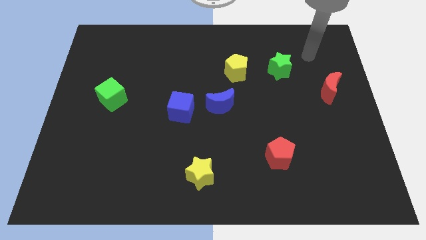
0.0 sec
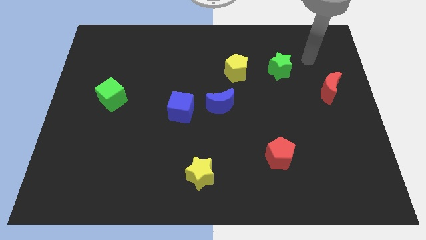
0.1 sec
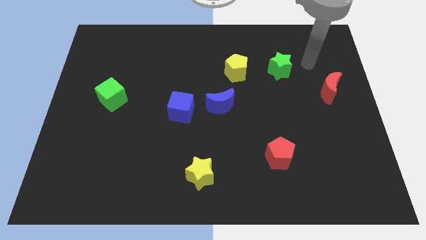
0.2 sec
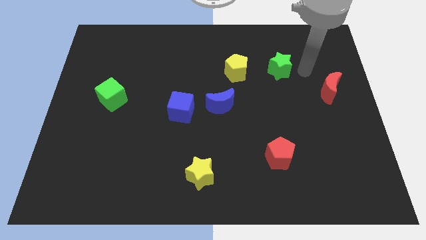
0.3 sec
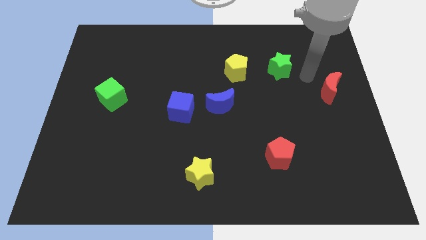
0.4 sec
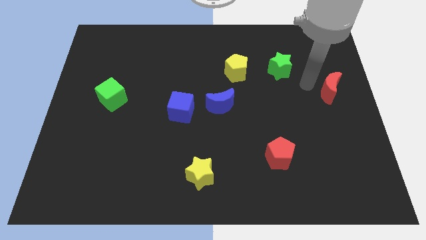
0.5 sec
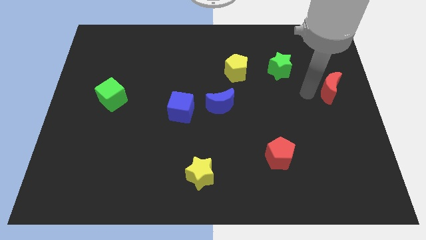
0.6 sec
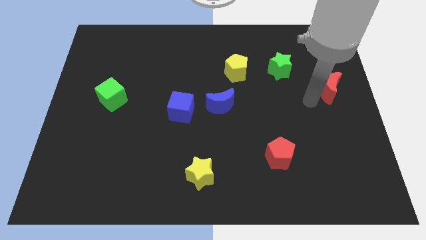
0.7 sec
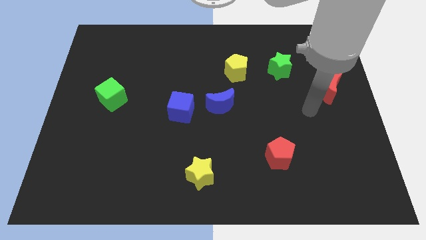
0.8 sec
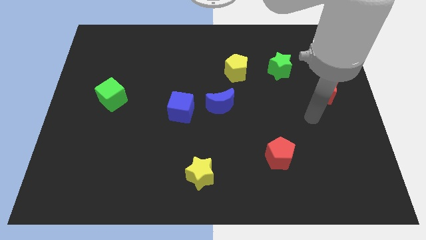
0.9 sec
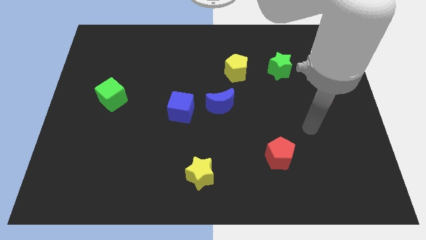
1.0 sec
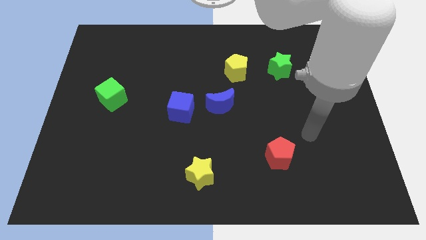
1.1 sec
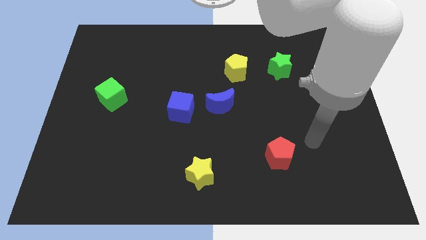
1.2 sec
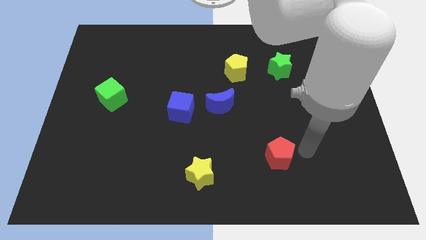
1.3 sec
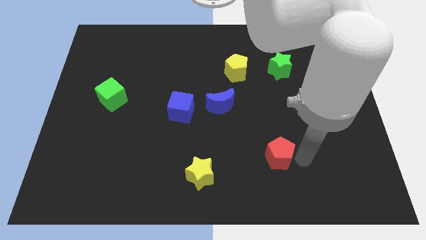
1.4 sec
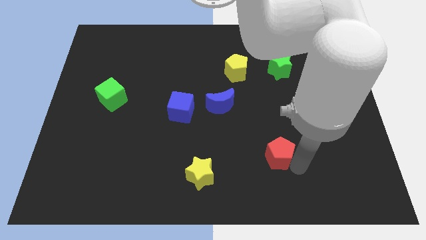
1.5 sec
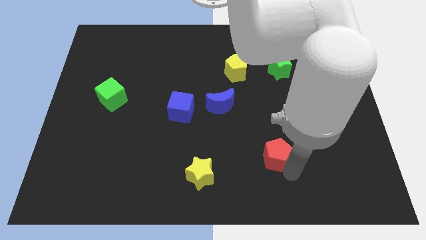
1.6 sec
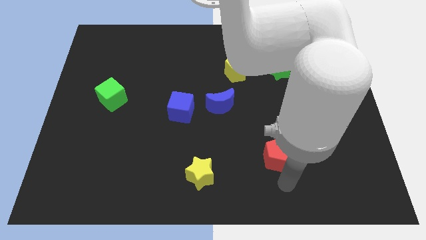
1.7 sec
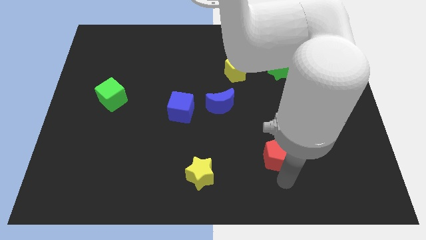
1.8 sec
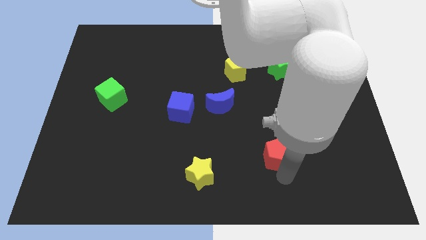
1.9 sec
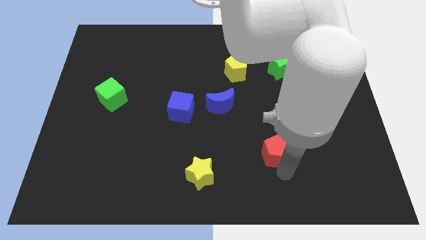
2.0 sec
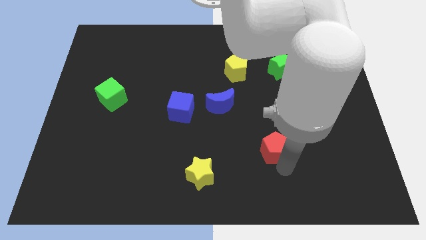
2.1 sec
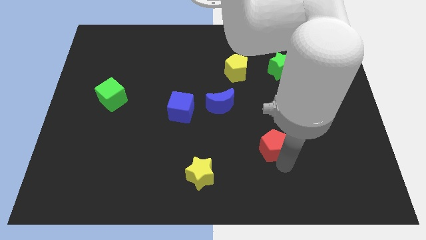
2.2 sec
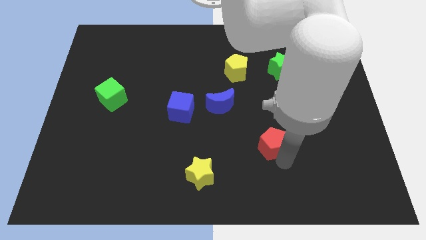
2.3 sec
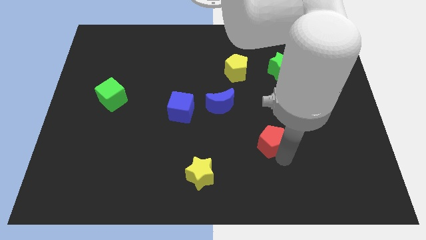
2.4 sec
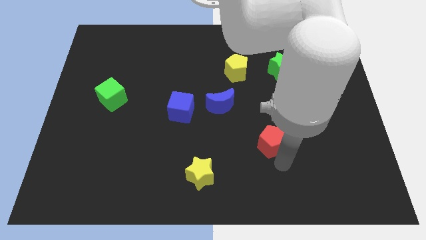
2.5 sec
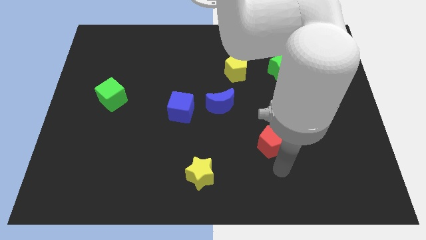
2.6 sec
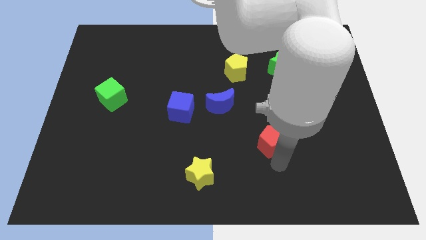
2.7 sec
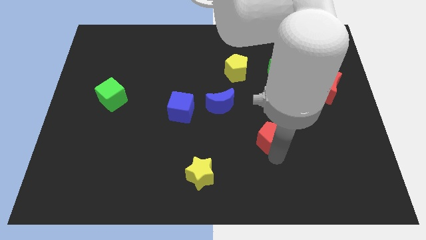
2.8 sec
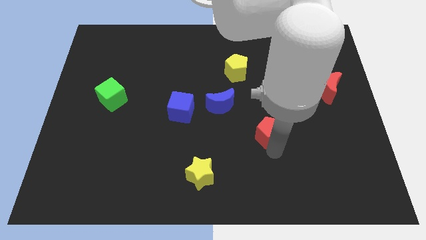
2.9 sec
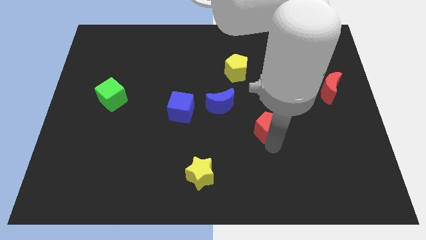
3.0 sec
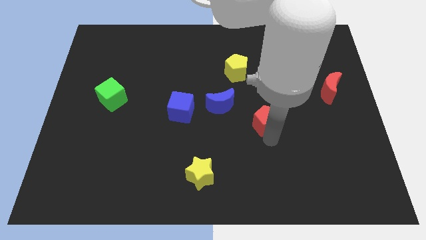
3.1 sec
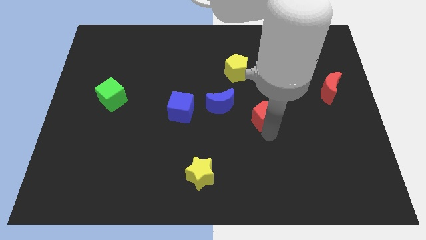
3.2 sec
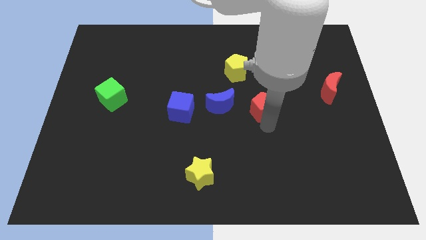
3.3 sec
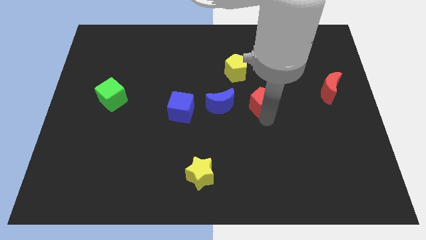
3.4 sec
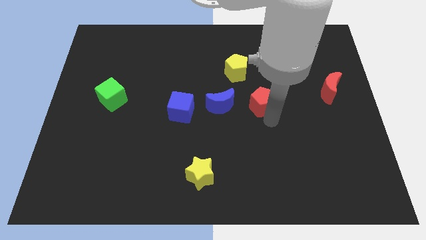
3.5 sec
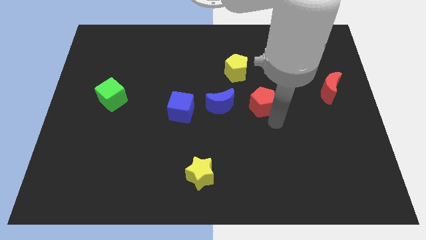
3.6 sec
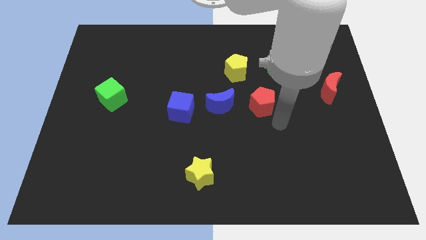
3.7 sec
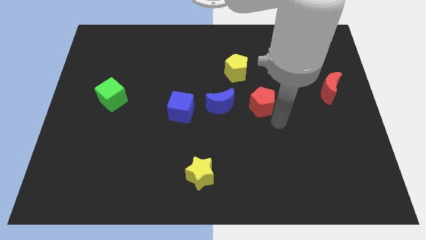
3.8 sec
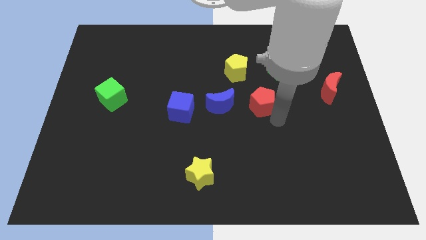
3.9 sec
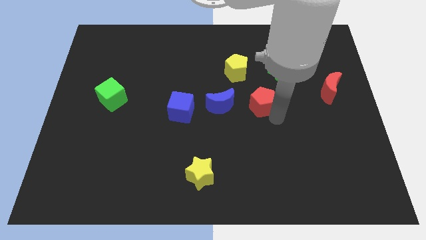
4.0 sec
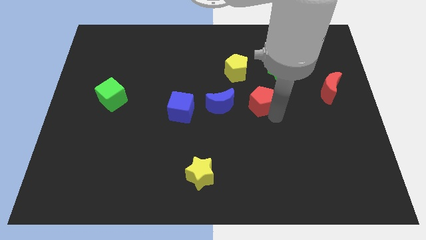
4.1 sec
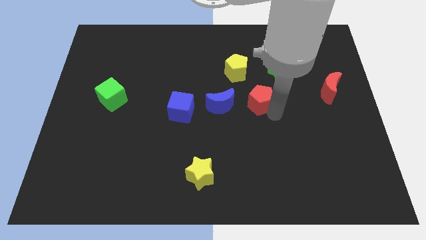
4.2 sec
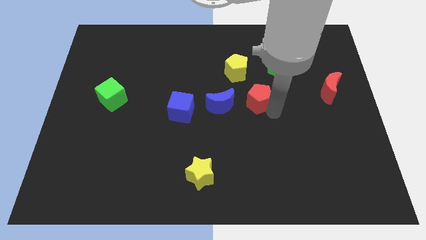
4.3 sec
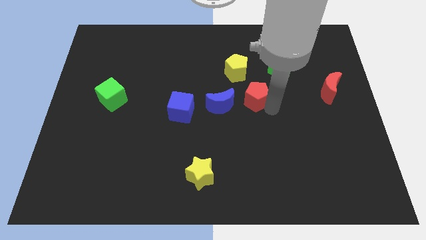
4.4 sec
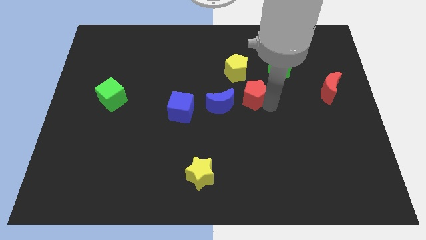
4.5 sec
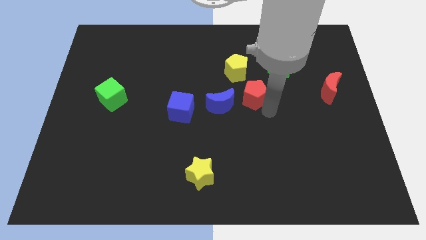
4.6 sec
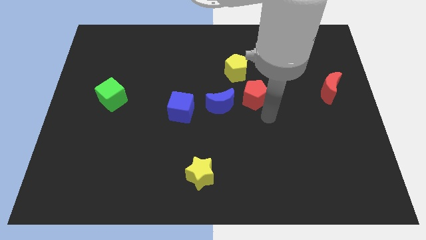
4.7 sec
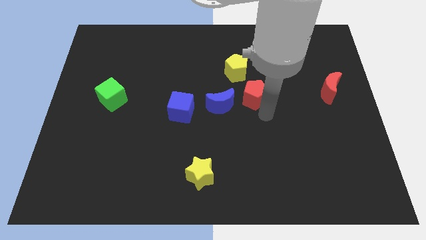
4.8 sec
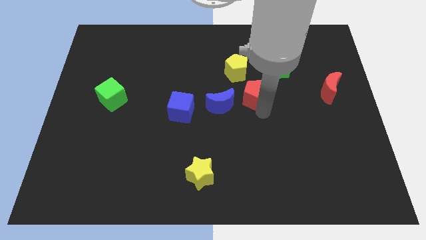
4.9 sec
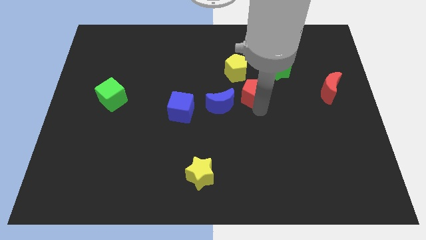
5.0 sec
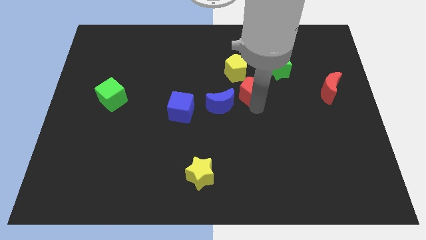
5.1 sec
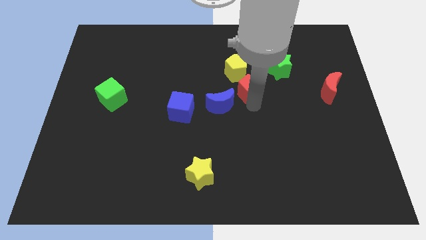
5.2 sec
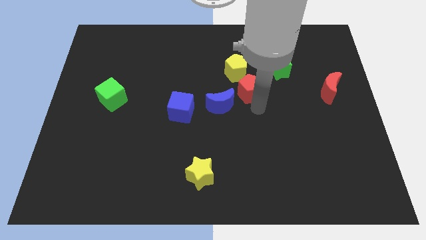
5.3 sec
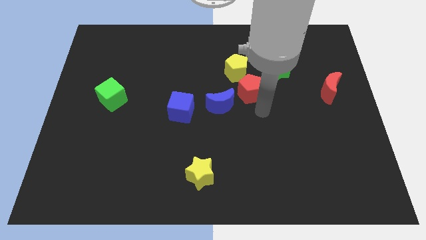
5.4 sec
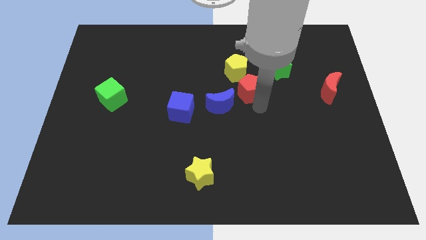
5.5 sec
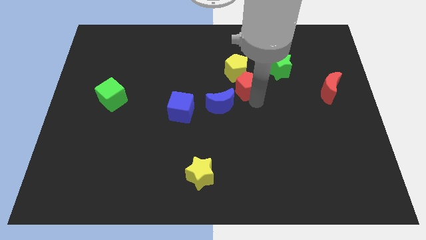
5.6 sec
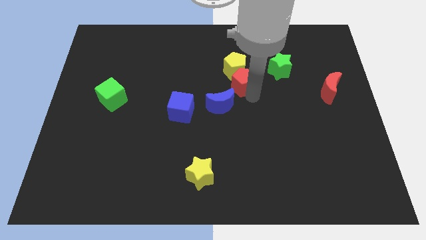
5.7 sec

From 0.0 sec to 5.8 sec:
put the red pentagon next to the yellow pentagon

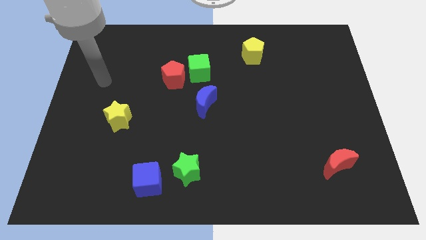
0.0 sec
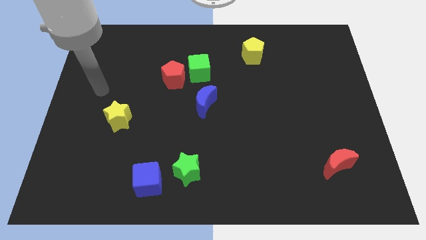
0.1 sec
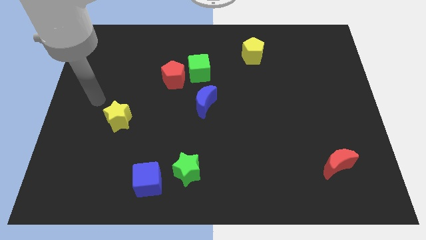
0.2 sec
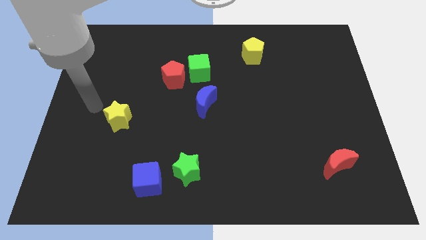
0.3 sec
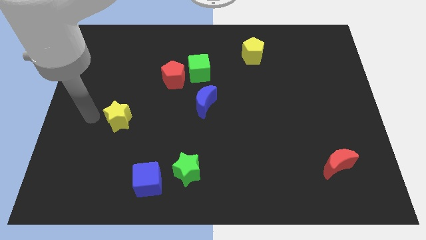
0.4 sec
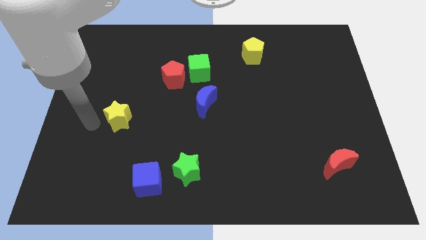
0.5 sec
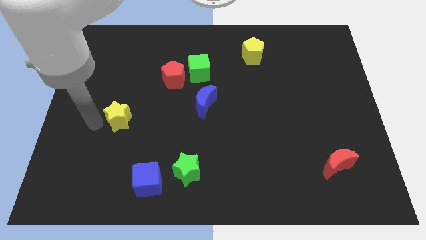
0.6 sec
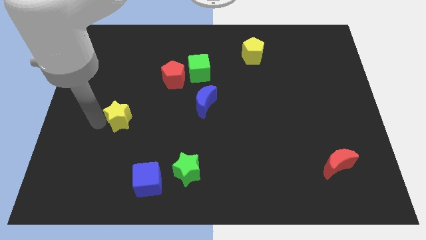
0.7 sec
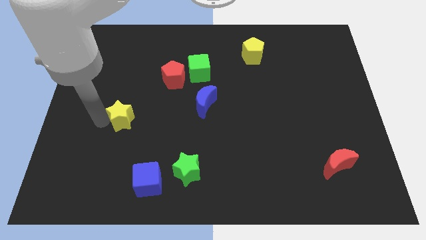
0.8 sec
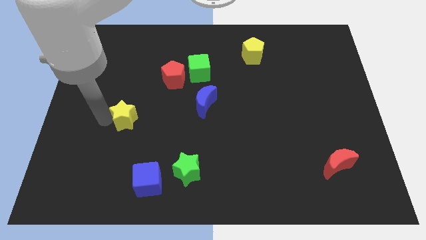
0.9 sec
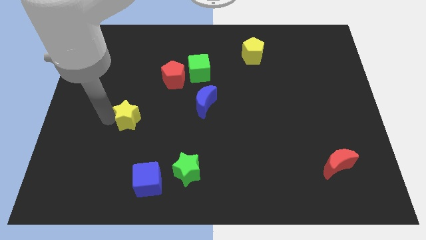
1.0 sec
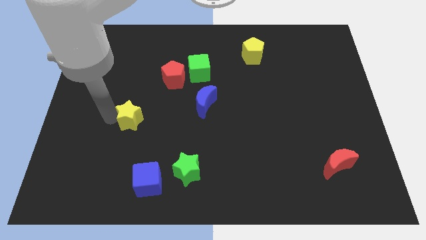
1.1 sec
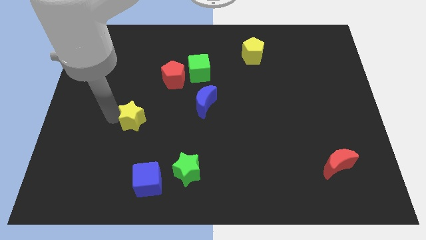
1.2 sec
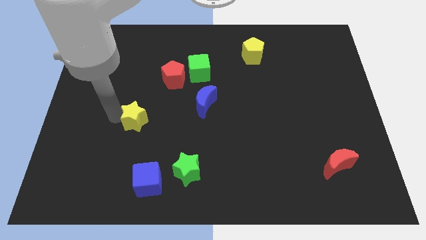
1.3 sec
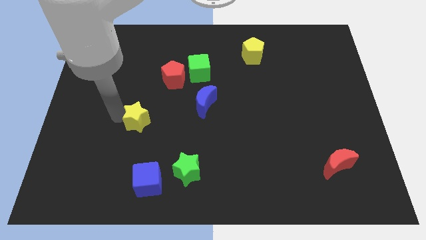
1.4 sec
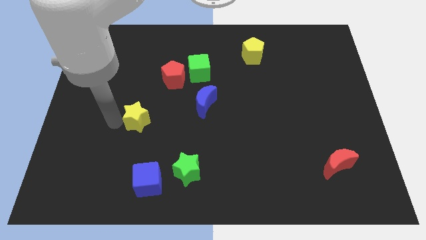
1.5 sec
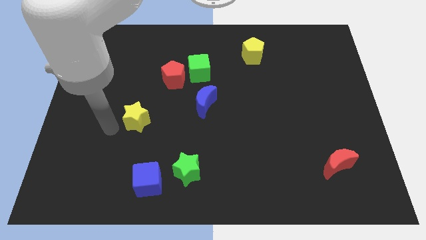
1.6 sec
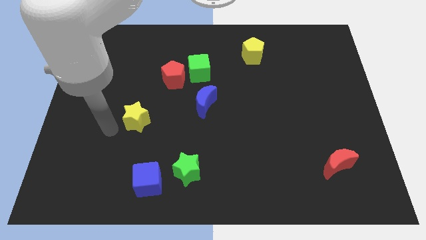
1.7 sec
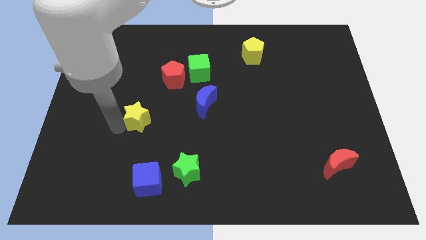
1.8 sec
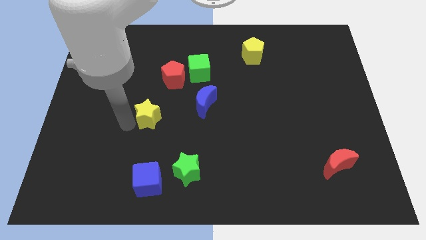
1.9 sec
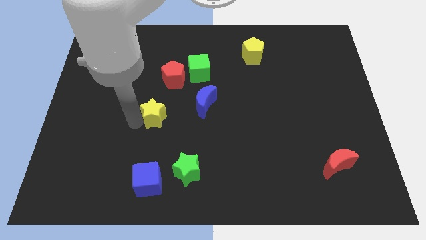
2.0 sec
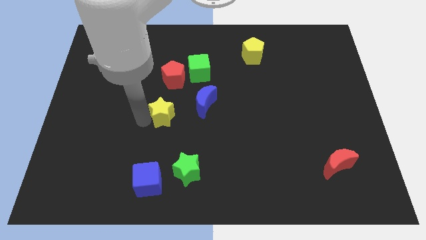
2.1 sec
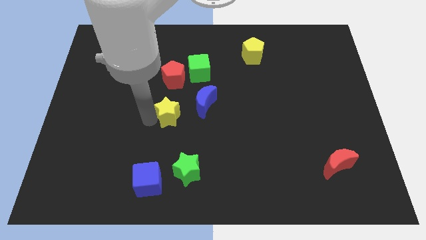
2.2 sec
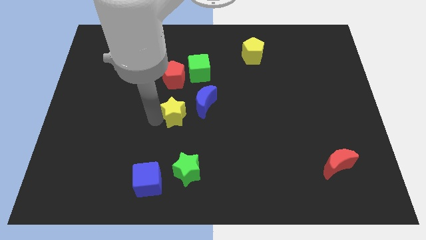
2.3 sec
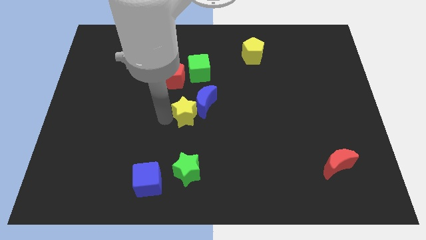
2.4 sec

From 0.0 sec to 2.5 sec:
slide the yellow star next to the blue moon
